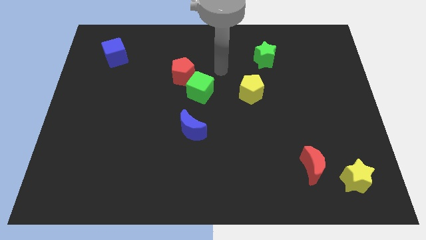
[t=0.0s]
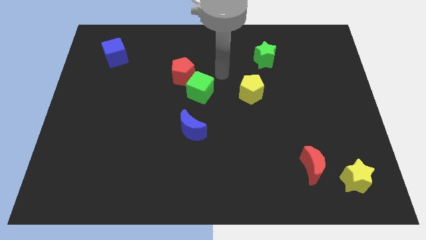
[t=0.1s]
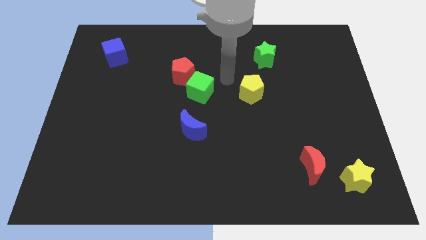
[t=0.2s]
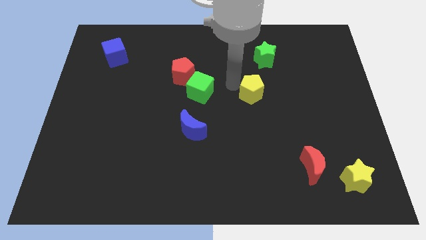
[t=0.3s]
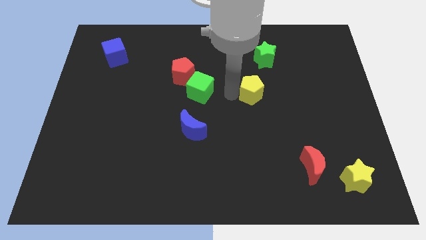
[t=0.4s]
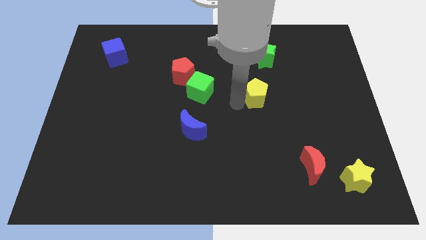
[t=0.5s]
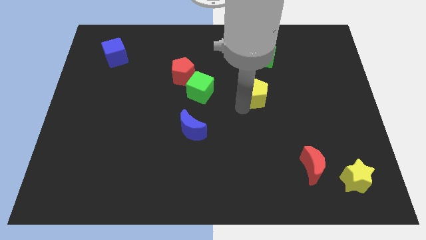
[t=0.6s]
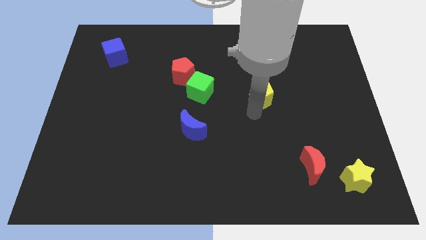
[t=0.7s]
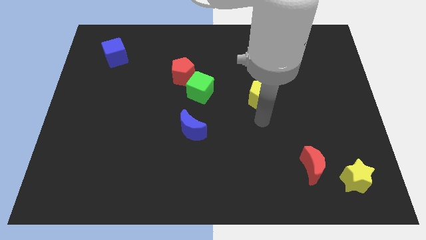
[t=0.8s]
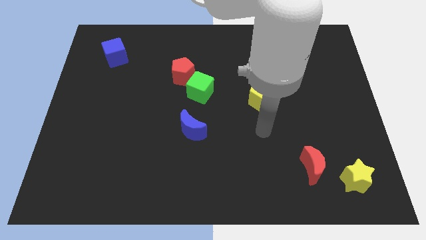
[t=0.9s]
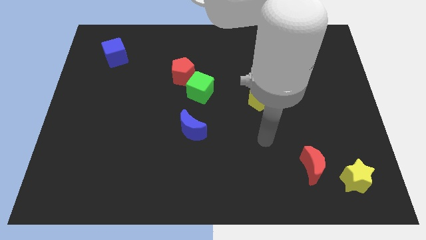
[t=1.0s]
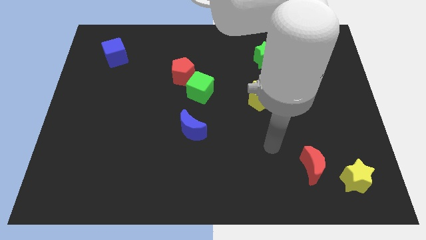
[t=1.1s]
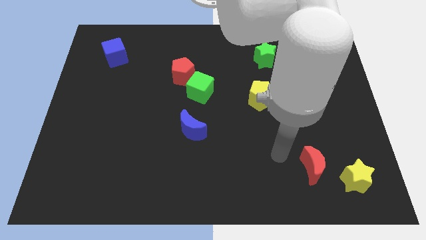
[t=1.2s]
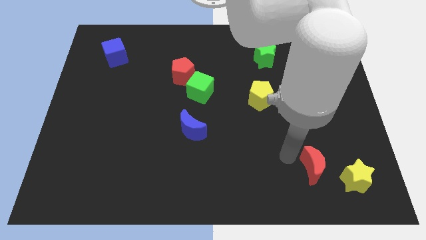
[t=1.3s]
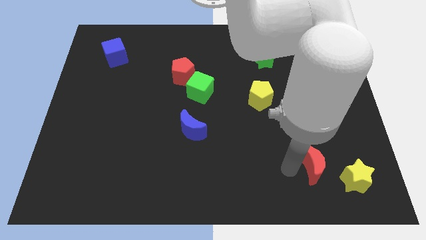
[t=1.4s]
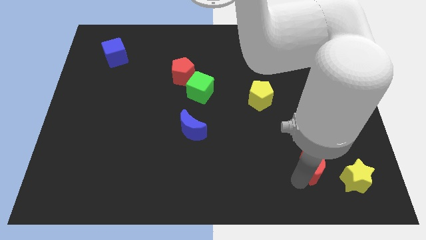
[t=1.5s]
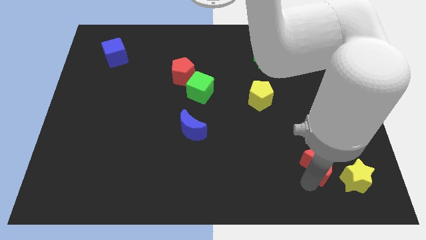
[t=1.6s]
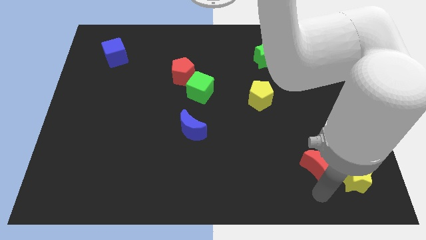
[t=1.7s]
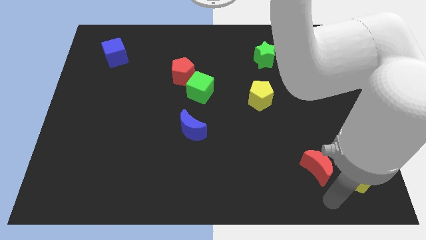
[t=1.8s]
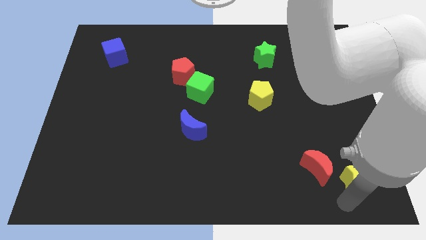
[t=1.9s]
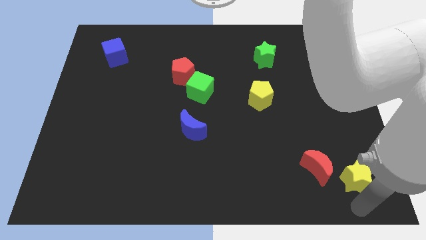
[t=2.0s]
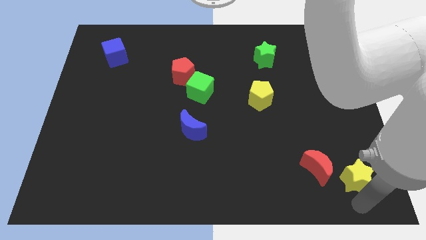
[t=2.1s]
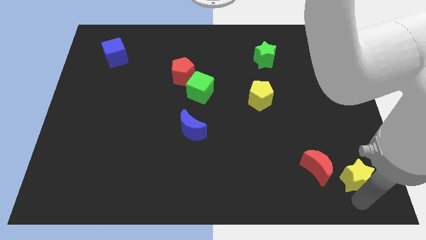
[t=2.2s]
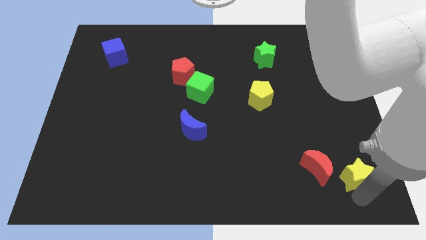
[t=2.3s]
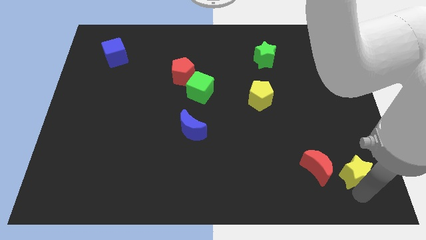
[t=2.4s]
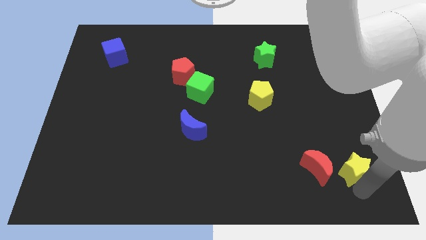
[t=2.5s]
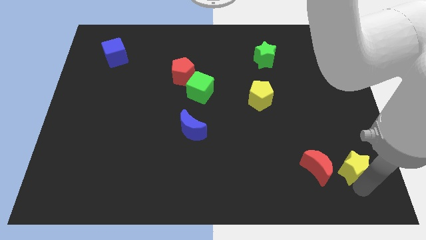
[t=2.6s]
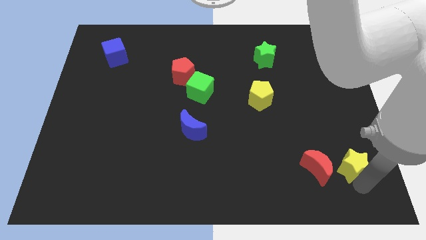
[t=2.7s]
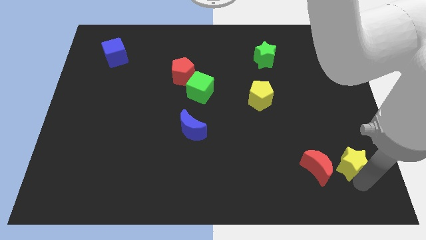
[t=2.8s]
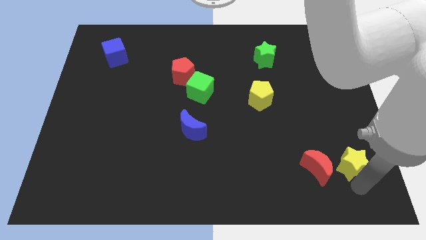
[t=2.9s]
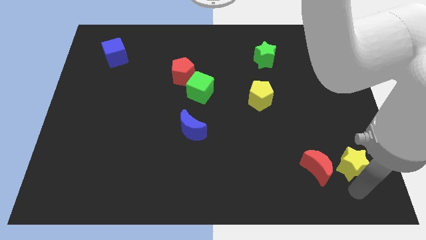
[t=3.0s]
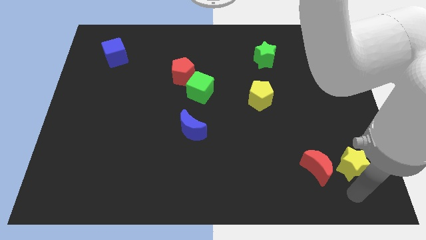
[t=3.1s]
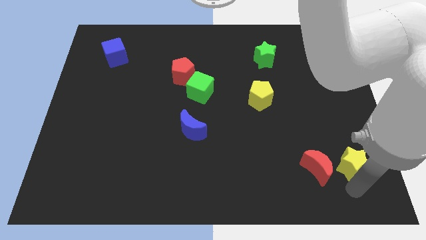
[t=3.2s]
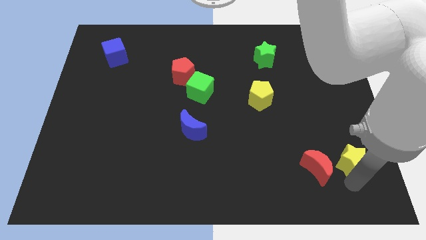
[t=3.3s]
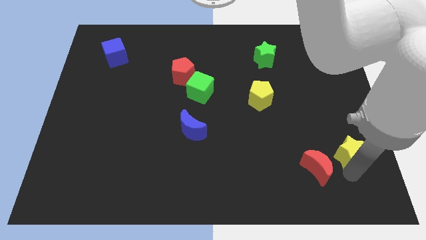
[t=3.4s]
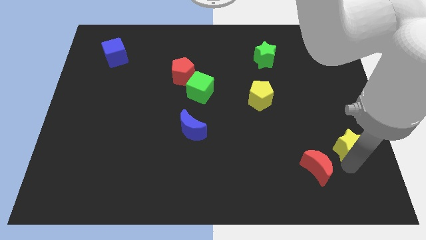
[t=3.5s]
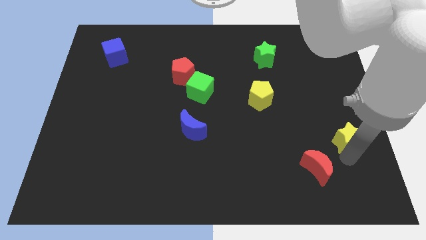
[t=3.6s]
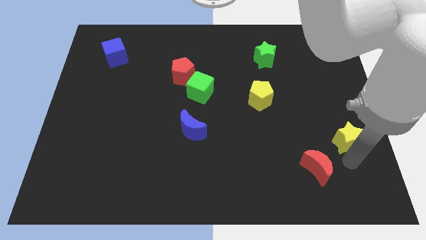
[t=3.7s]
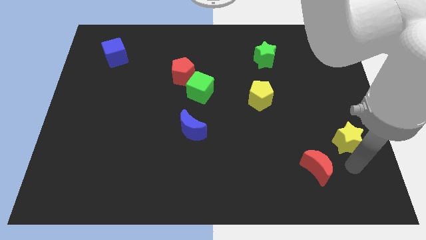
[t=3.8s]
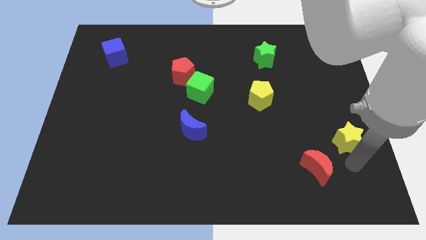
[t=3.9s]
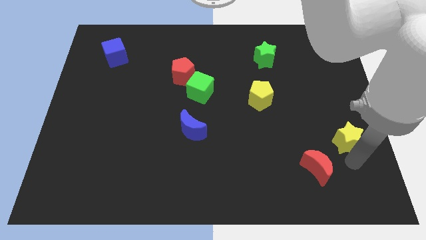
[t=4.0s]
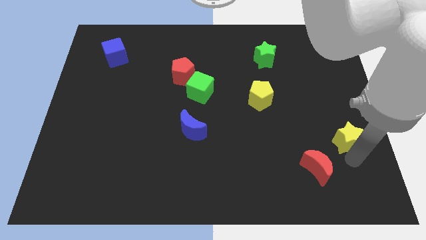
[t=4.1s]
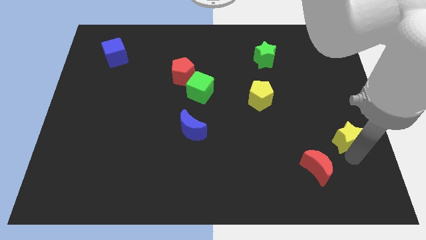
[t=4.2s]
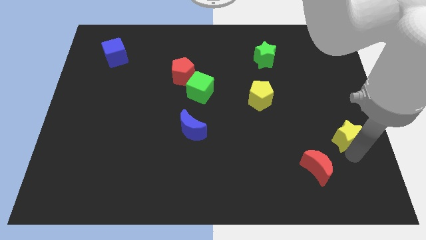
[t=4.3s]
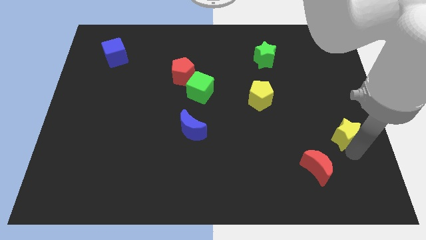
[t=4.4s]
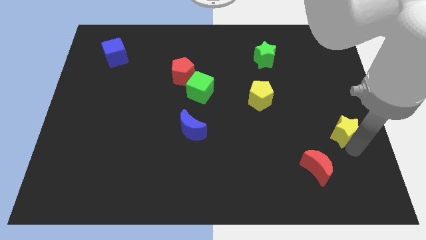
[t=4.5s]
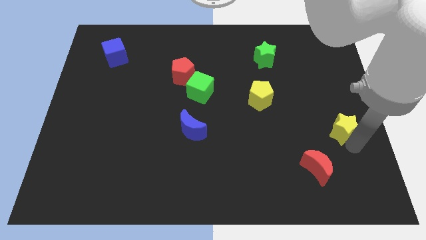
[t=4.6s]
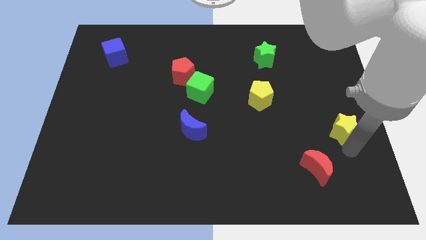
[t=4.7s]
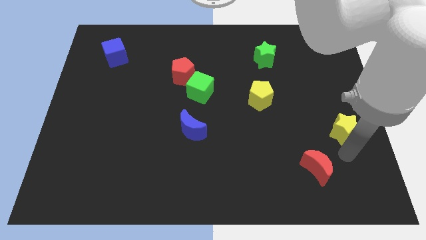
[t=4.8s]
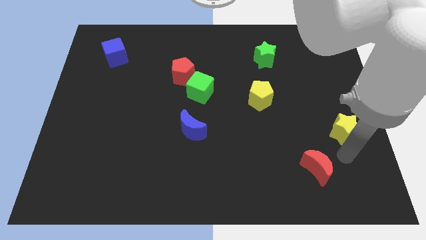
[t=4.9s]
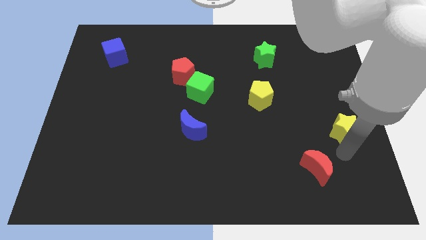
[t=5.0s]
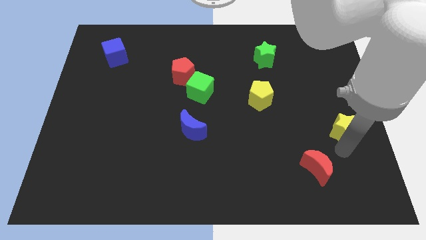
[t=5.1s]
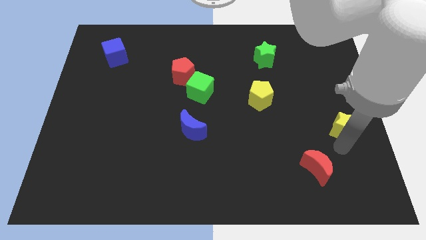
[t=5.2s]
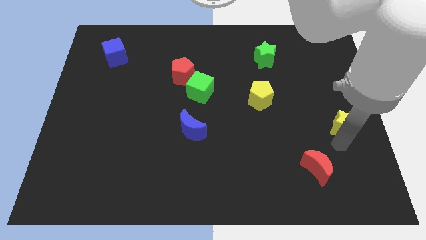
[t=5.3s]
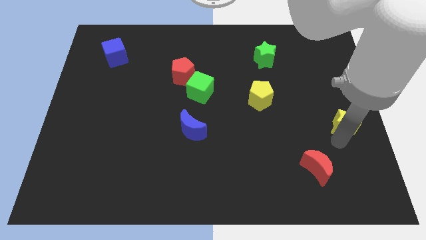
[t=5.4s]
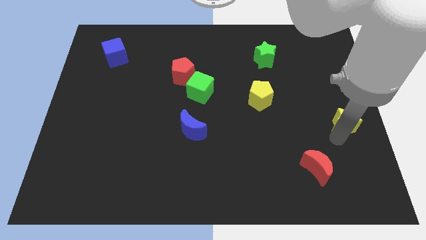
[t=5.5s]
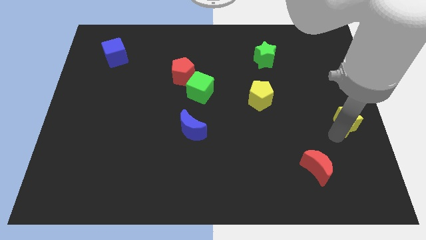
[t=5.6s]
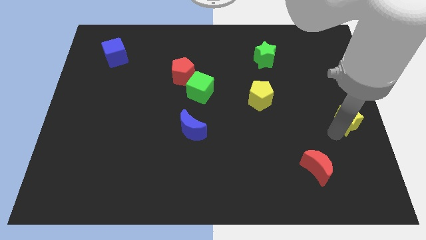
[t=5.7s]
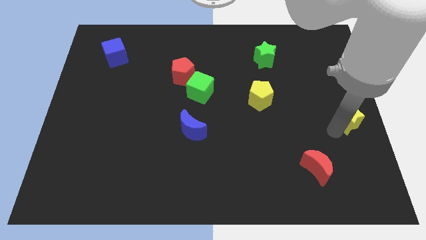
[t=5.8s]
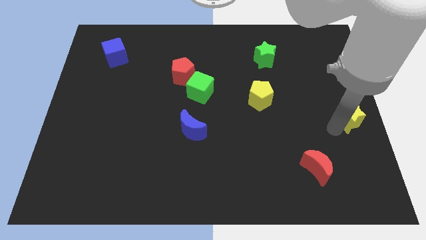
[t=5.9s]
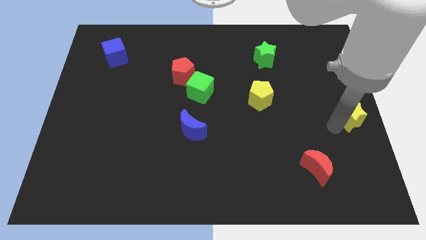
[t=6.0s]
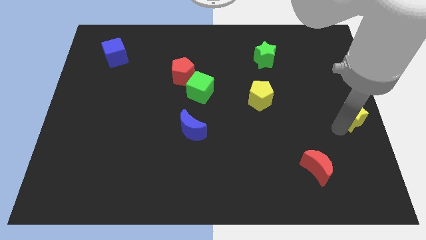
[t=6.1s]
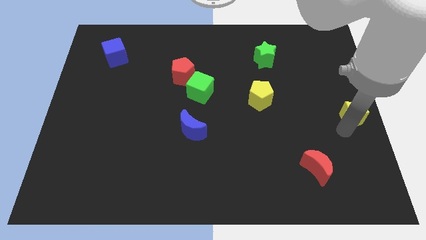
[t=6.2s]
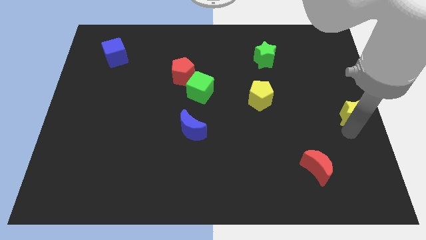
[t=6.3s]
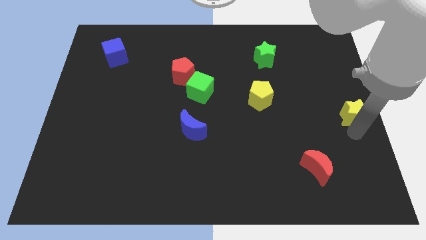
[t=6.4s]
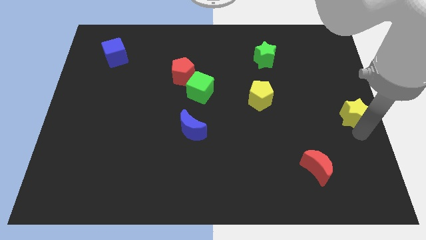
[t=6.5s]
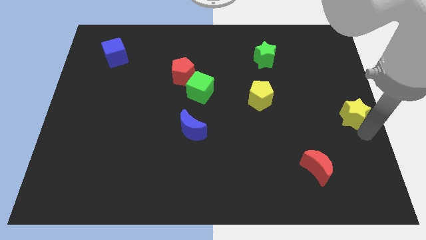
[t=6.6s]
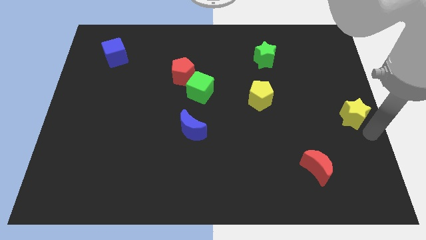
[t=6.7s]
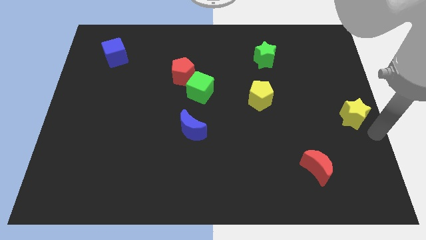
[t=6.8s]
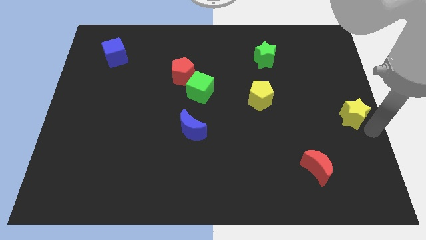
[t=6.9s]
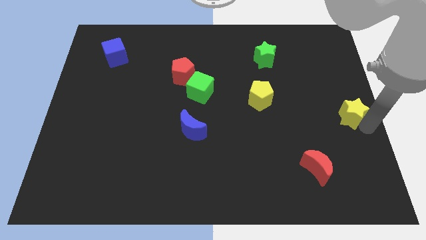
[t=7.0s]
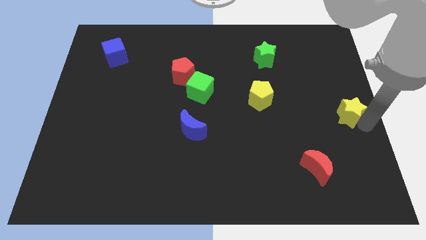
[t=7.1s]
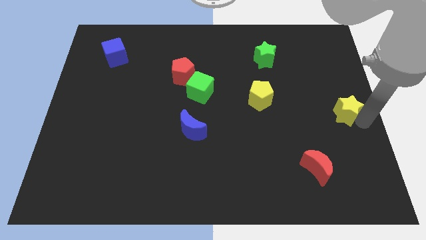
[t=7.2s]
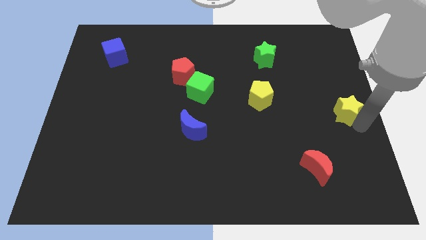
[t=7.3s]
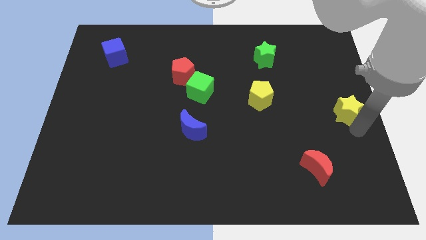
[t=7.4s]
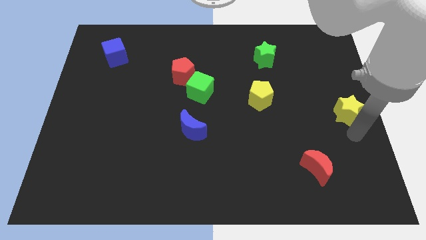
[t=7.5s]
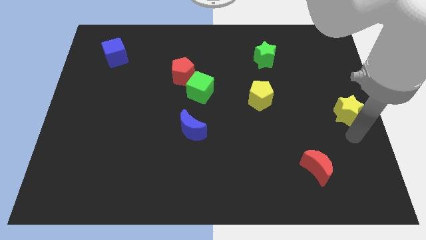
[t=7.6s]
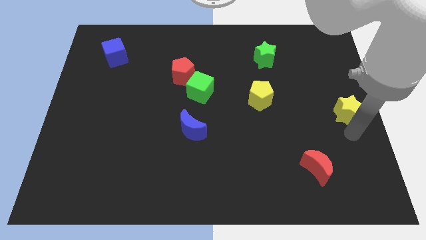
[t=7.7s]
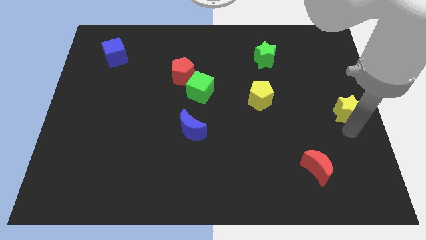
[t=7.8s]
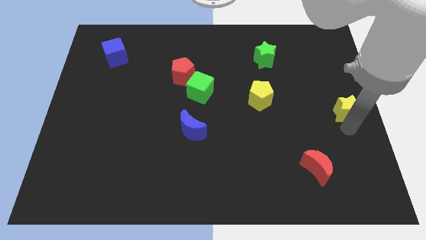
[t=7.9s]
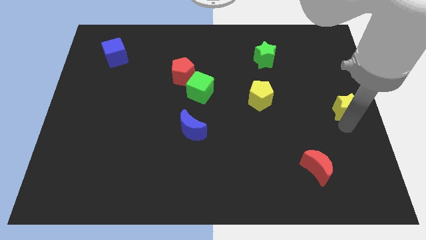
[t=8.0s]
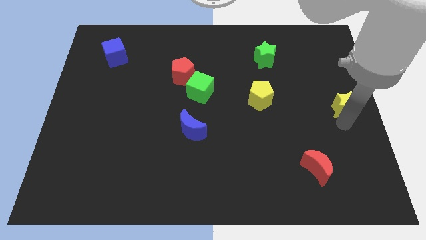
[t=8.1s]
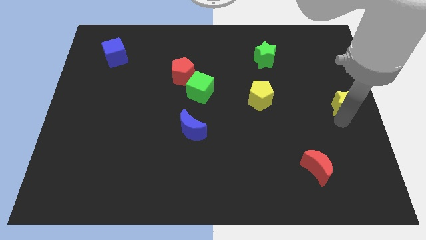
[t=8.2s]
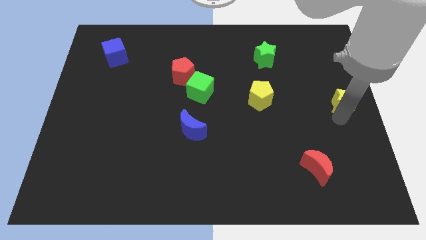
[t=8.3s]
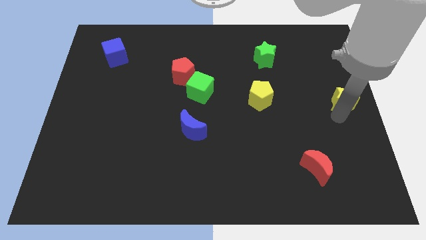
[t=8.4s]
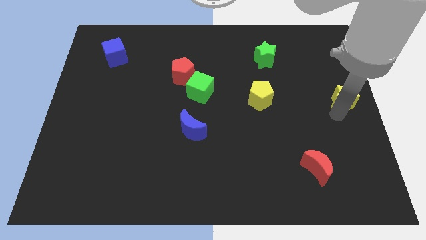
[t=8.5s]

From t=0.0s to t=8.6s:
slide the yellow star upwards
